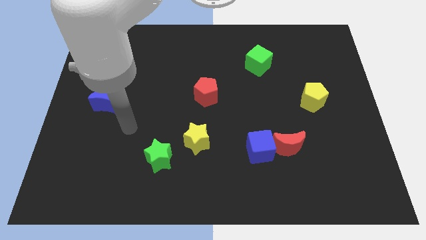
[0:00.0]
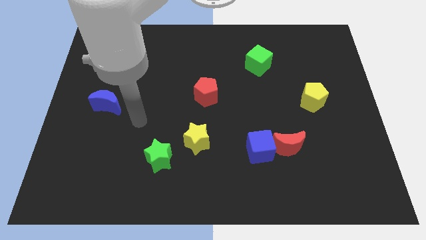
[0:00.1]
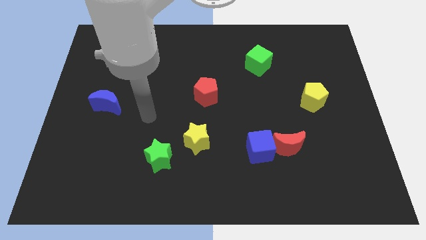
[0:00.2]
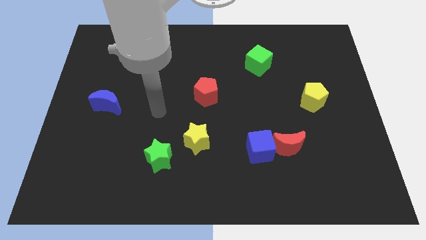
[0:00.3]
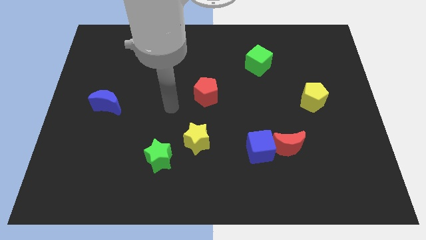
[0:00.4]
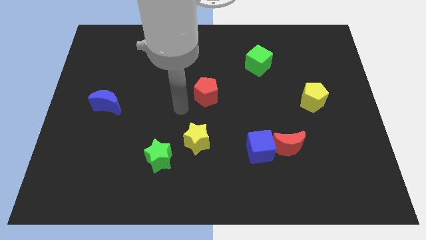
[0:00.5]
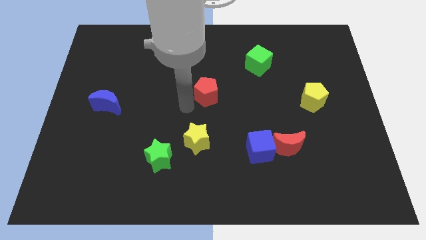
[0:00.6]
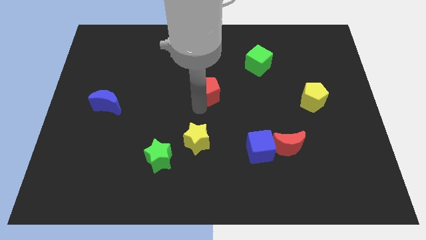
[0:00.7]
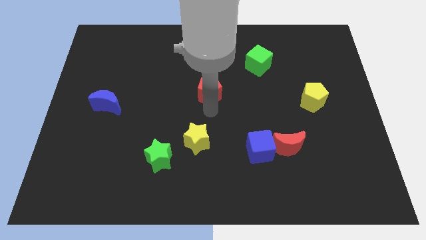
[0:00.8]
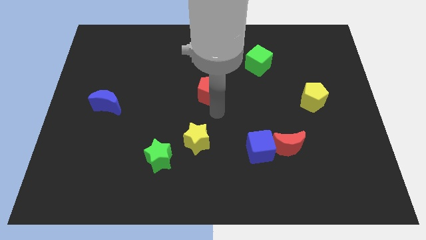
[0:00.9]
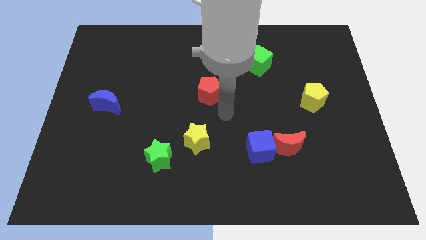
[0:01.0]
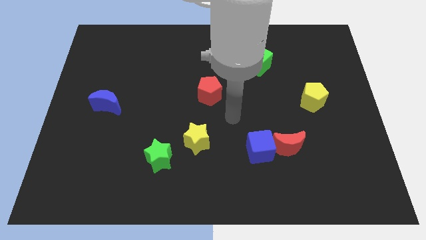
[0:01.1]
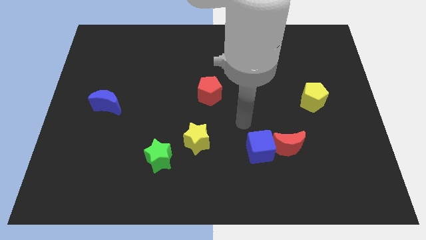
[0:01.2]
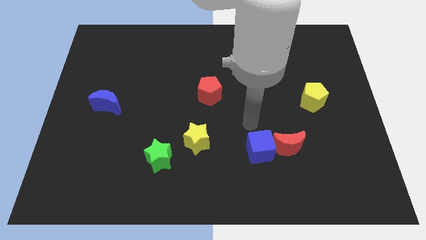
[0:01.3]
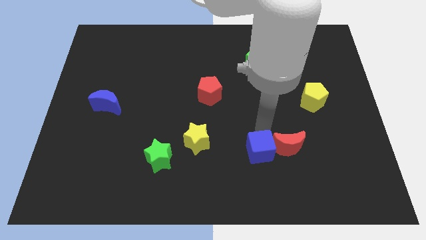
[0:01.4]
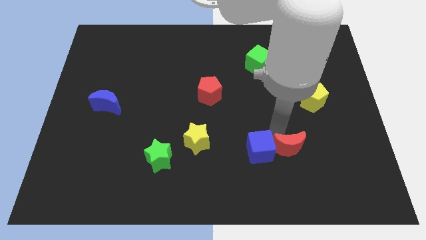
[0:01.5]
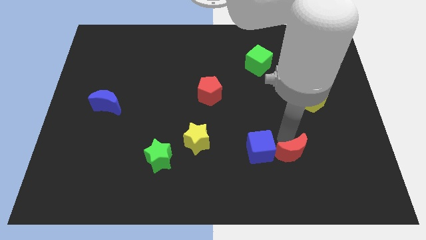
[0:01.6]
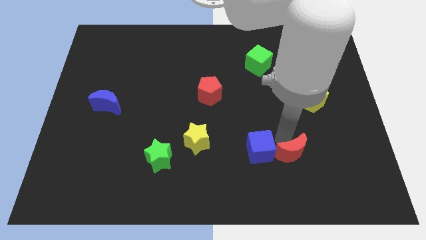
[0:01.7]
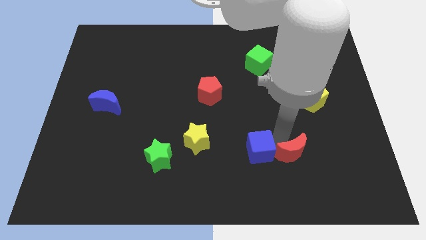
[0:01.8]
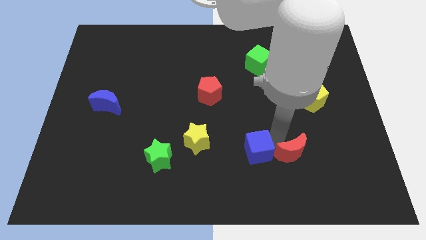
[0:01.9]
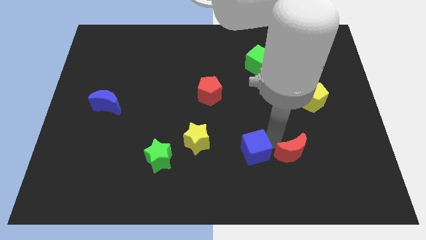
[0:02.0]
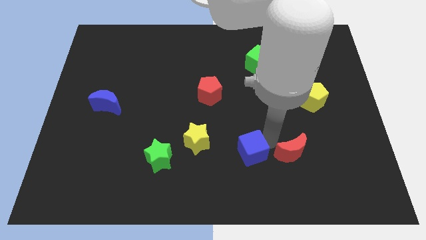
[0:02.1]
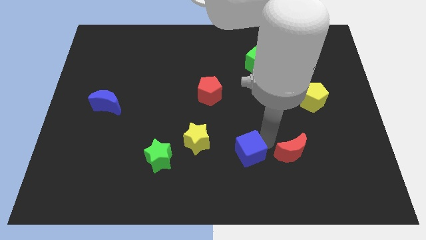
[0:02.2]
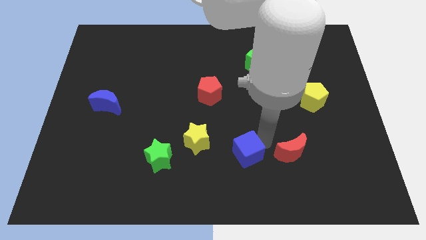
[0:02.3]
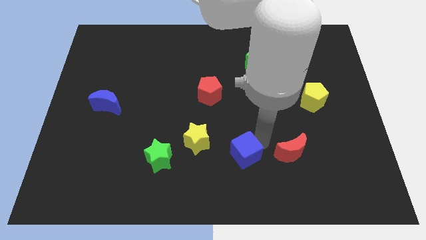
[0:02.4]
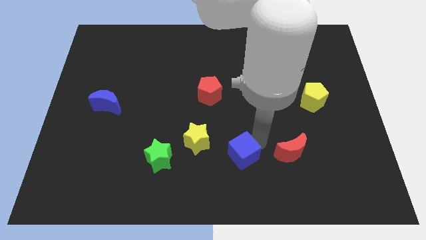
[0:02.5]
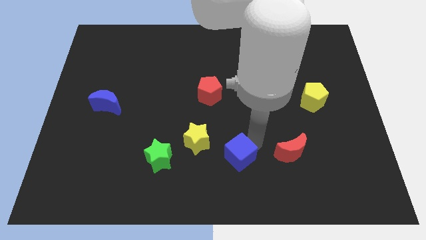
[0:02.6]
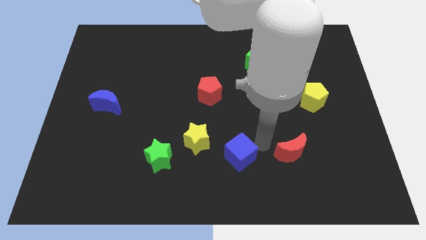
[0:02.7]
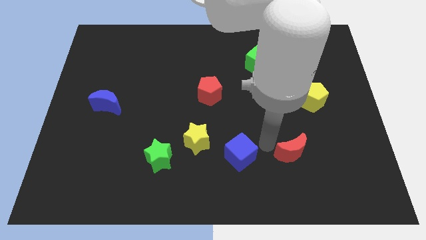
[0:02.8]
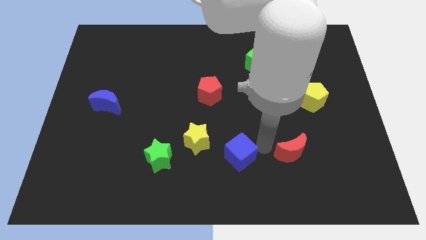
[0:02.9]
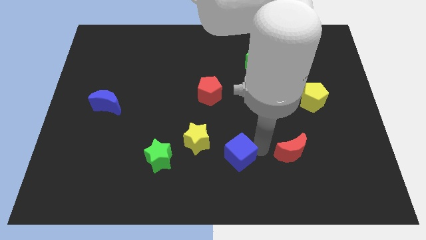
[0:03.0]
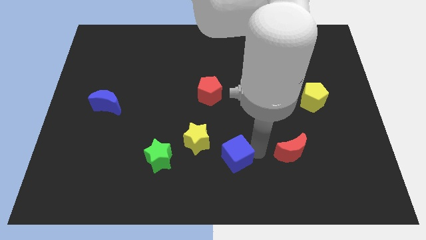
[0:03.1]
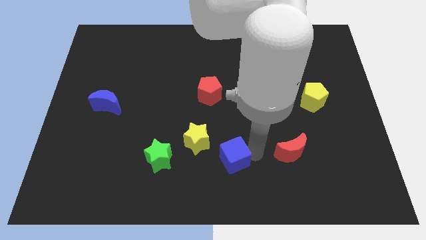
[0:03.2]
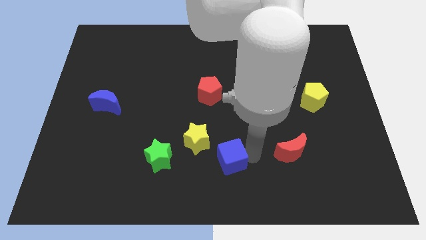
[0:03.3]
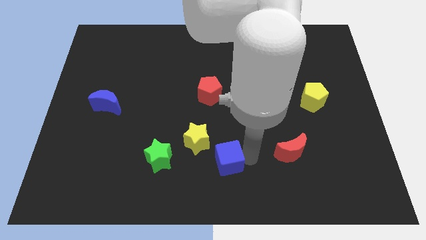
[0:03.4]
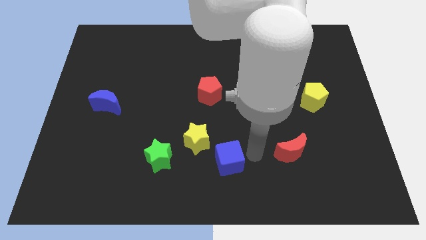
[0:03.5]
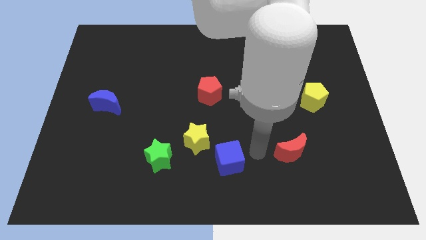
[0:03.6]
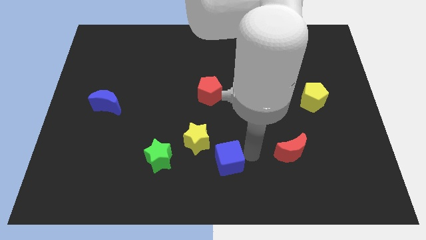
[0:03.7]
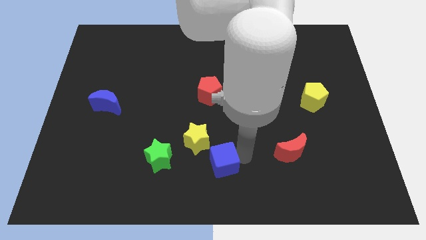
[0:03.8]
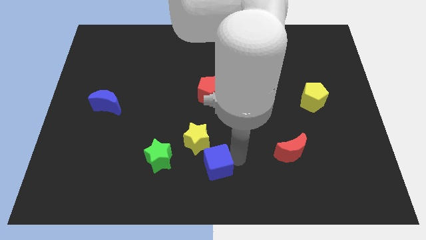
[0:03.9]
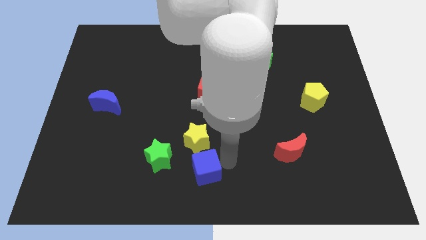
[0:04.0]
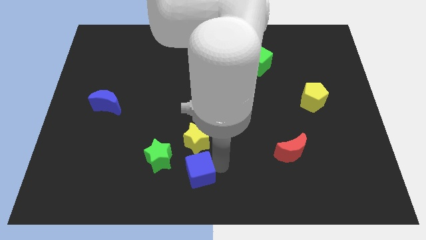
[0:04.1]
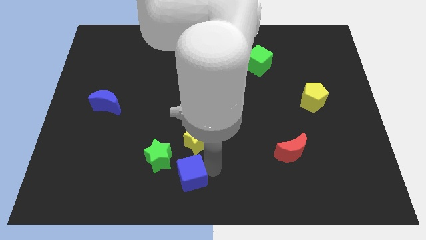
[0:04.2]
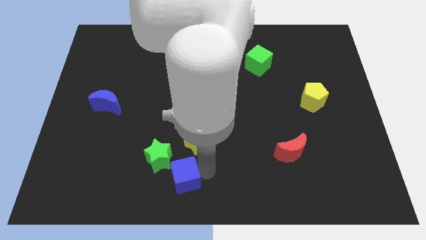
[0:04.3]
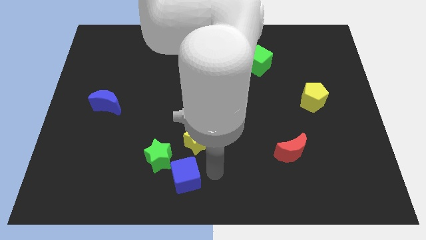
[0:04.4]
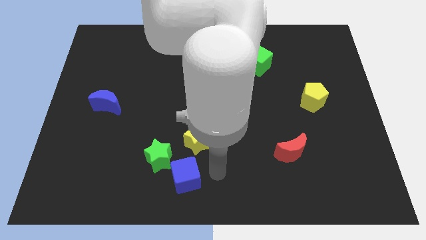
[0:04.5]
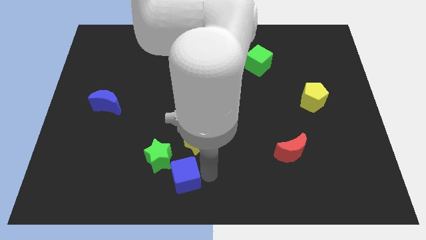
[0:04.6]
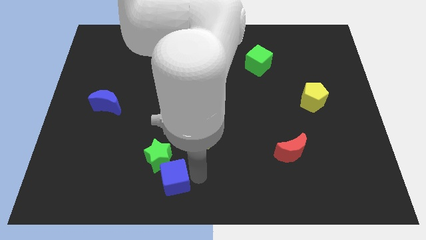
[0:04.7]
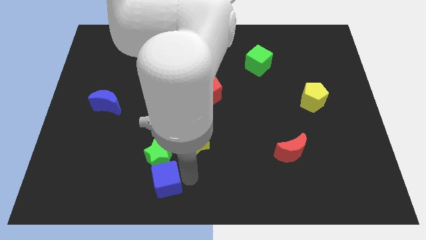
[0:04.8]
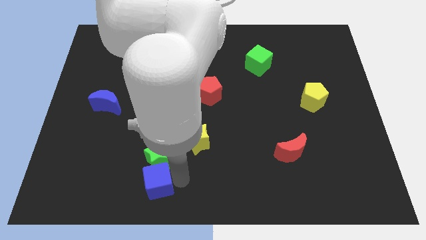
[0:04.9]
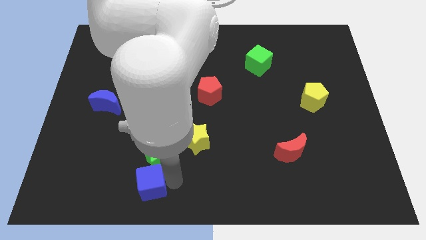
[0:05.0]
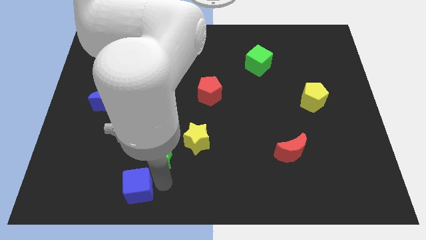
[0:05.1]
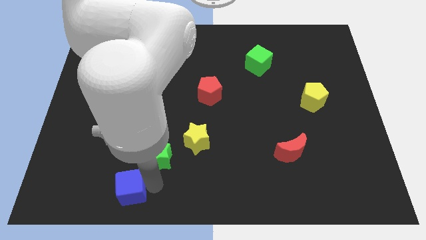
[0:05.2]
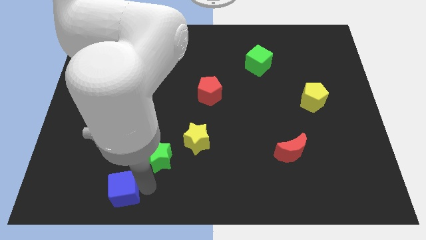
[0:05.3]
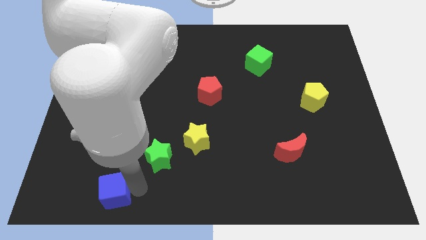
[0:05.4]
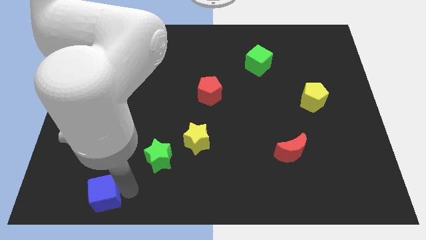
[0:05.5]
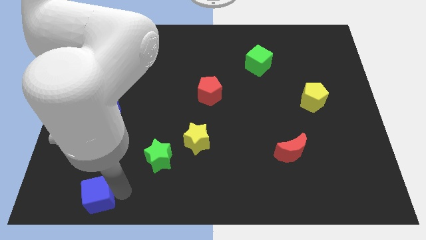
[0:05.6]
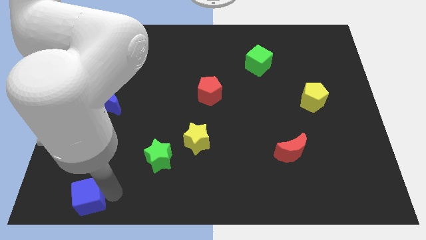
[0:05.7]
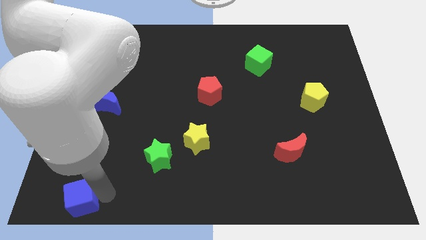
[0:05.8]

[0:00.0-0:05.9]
move the blue cube to the bottom left of the board
